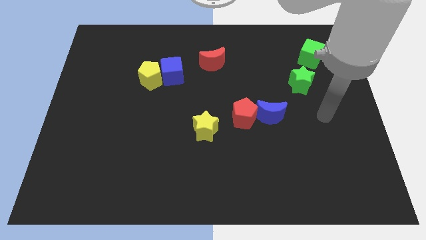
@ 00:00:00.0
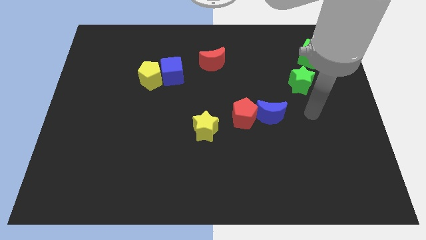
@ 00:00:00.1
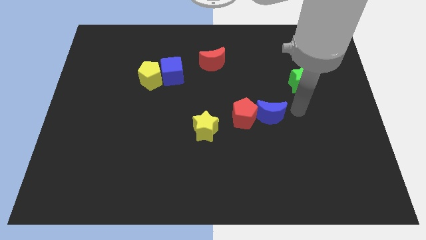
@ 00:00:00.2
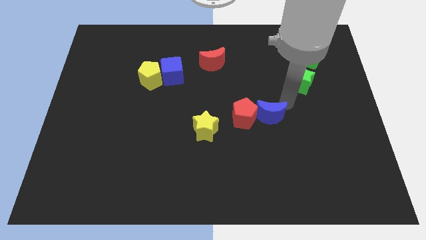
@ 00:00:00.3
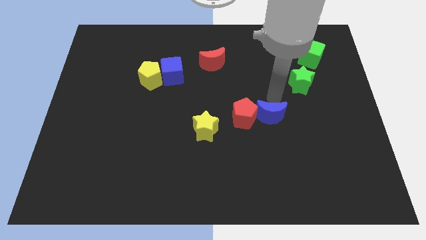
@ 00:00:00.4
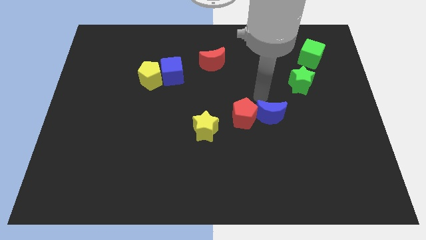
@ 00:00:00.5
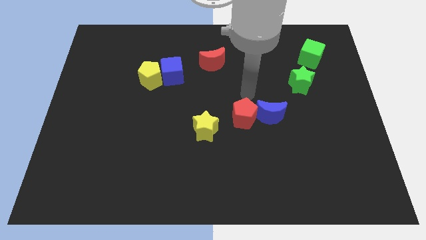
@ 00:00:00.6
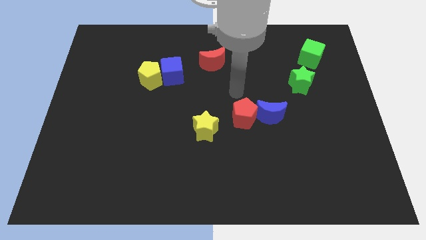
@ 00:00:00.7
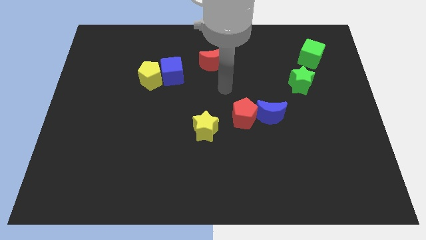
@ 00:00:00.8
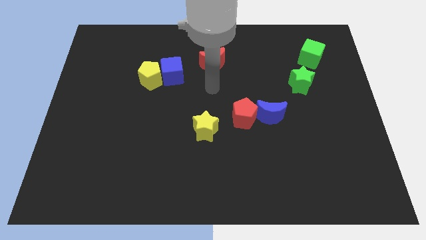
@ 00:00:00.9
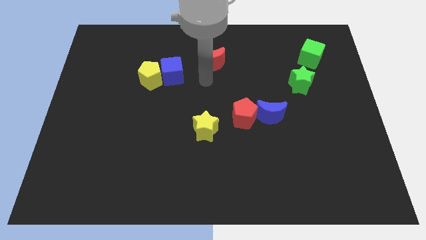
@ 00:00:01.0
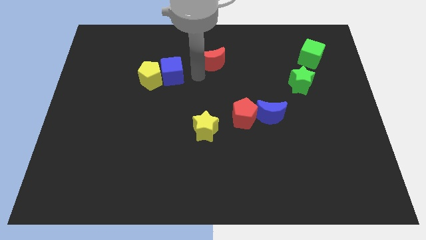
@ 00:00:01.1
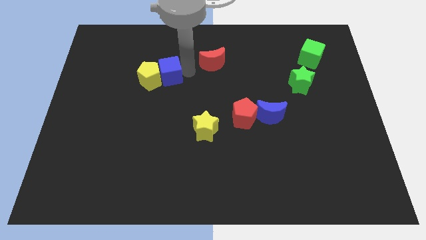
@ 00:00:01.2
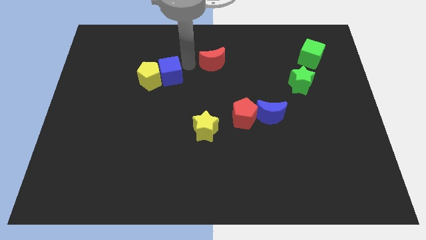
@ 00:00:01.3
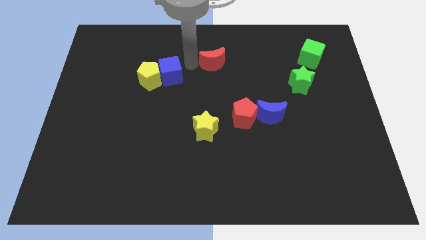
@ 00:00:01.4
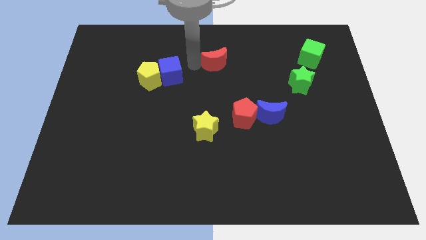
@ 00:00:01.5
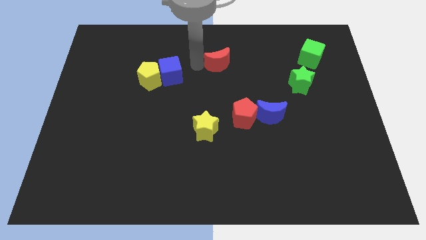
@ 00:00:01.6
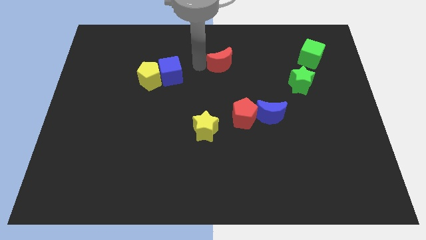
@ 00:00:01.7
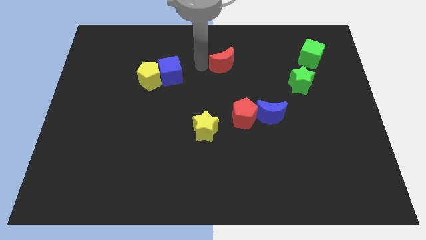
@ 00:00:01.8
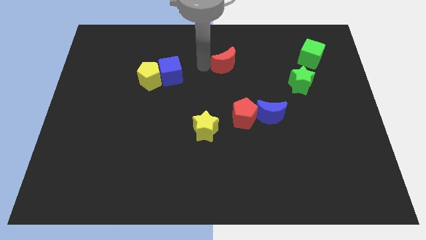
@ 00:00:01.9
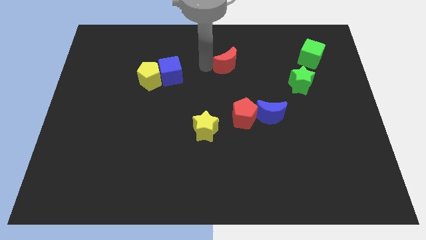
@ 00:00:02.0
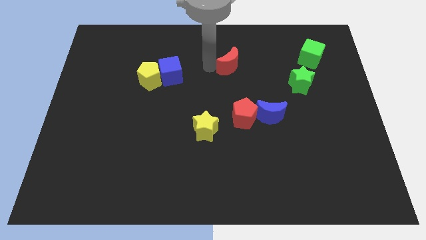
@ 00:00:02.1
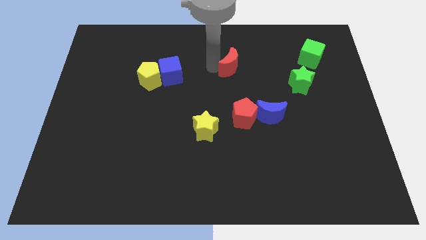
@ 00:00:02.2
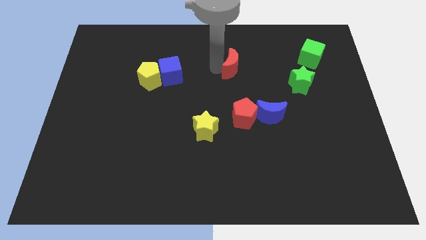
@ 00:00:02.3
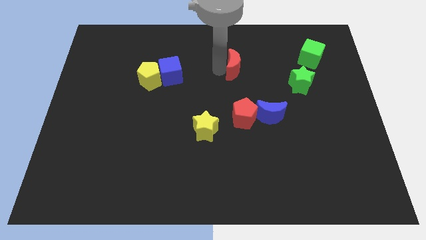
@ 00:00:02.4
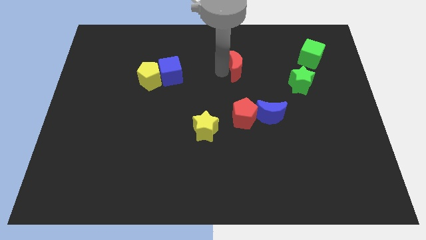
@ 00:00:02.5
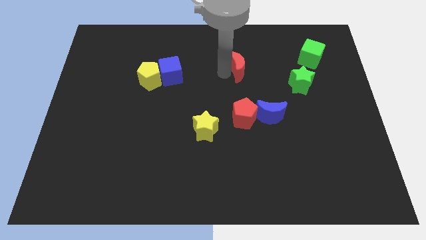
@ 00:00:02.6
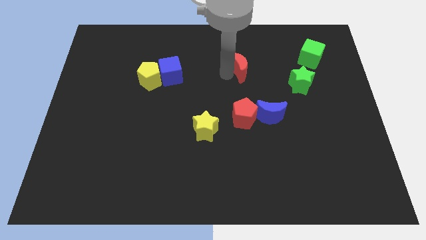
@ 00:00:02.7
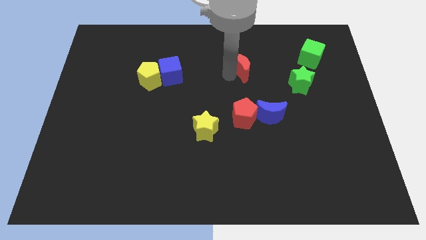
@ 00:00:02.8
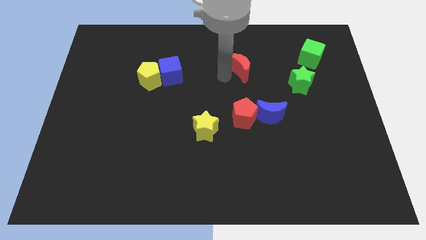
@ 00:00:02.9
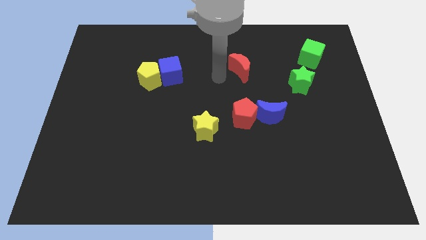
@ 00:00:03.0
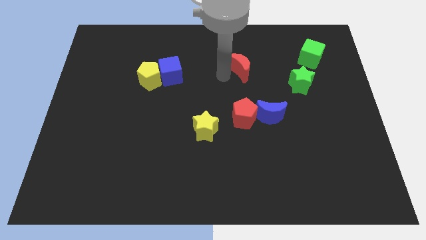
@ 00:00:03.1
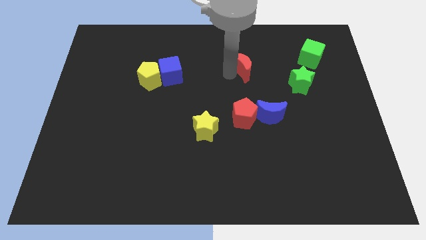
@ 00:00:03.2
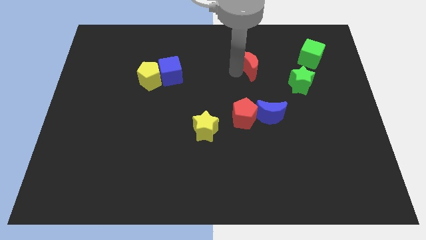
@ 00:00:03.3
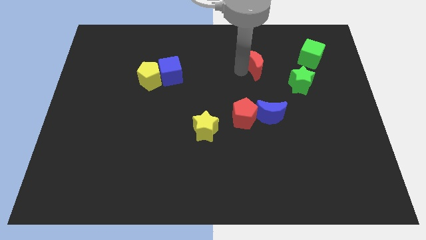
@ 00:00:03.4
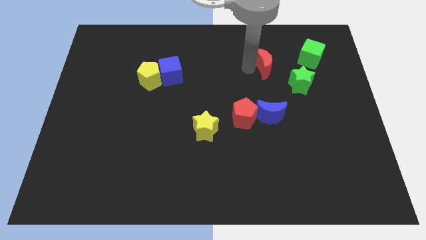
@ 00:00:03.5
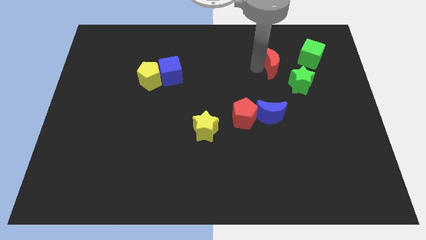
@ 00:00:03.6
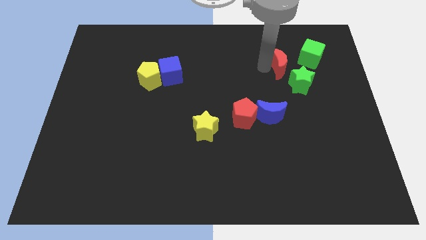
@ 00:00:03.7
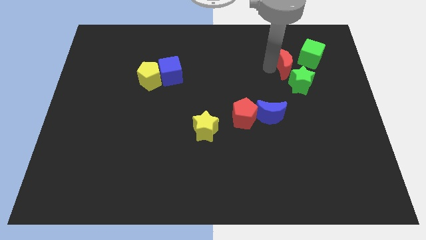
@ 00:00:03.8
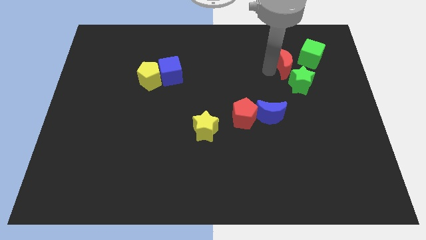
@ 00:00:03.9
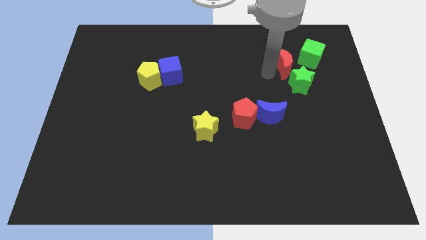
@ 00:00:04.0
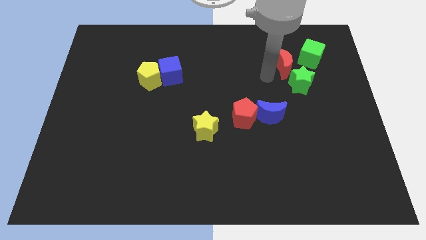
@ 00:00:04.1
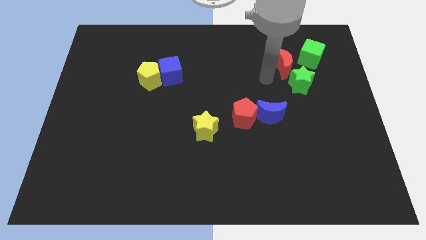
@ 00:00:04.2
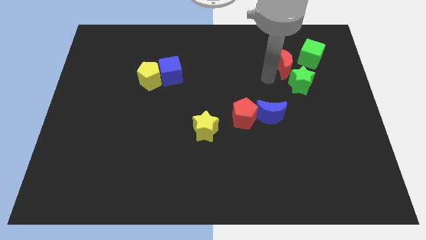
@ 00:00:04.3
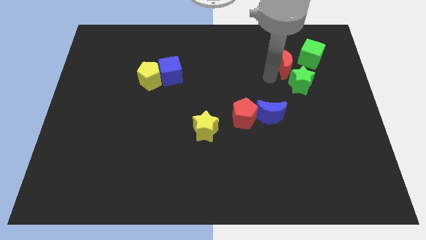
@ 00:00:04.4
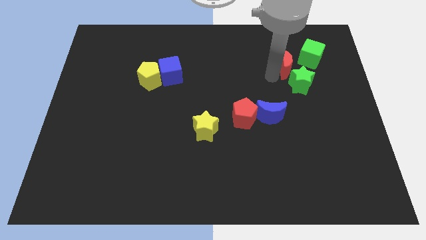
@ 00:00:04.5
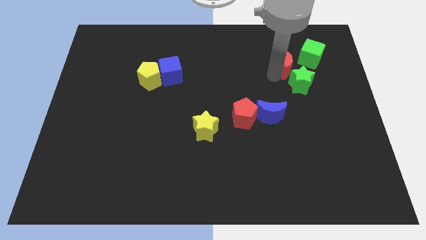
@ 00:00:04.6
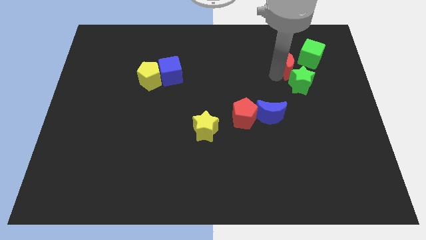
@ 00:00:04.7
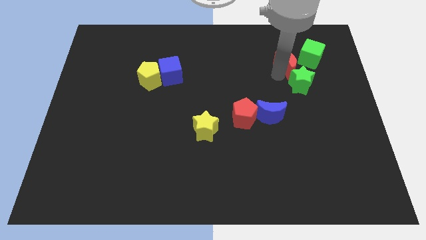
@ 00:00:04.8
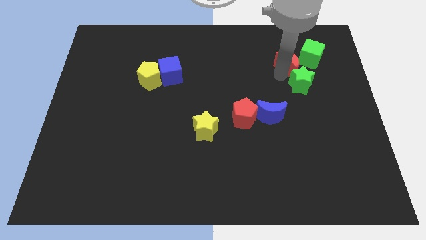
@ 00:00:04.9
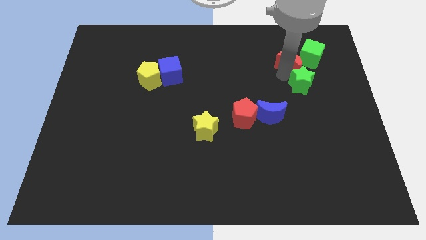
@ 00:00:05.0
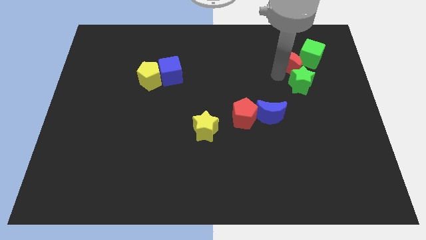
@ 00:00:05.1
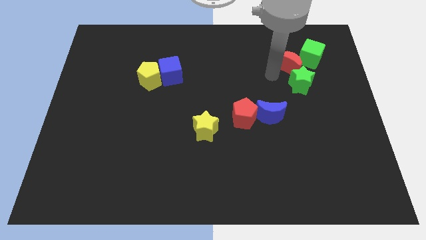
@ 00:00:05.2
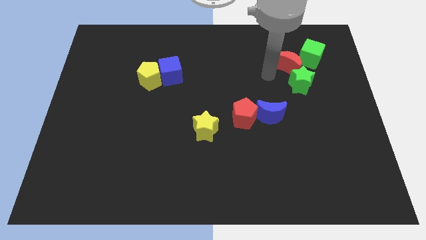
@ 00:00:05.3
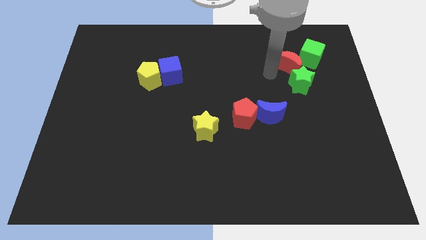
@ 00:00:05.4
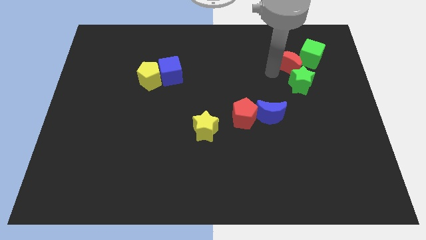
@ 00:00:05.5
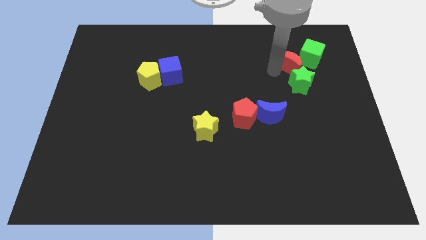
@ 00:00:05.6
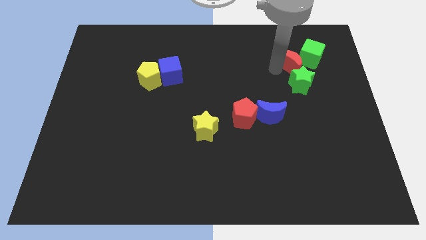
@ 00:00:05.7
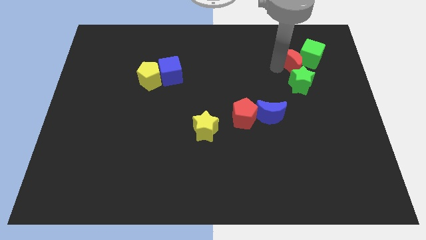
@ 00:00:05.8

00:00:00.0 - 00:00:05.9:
move the red moon towards the green cube

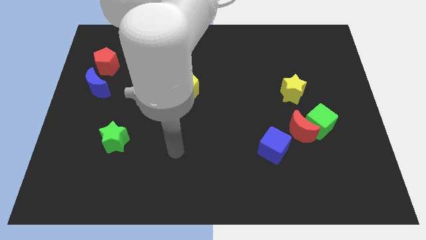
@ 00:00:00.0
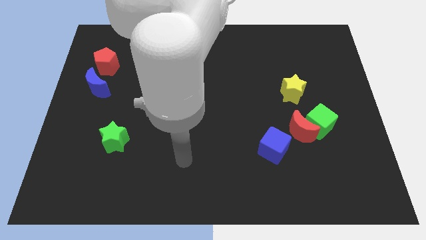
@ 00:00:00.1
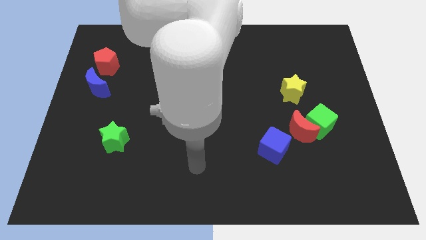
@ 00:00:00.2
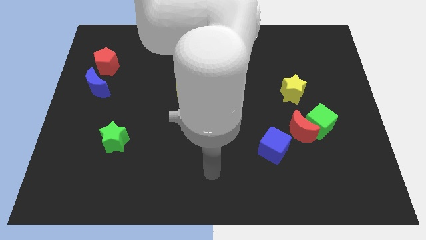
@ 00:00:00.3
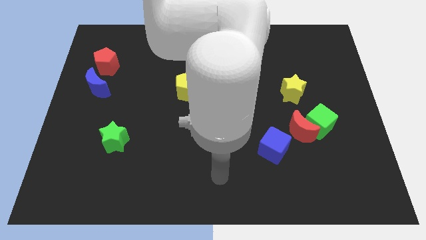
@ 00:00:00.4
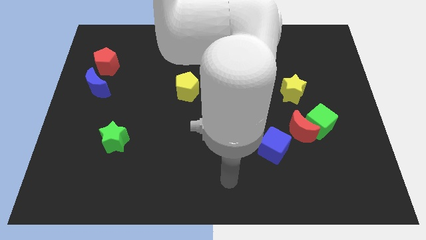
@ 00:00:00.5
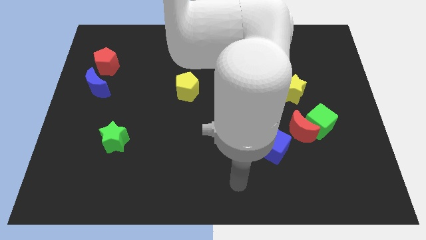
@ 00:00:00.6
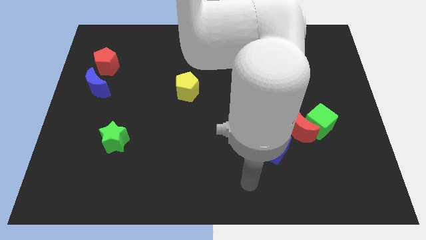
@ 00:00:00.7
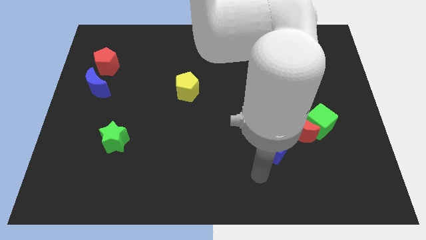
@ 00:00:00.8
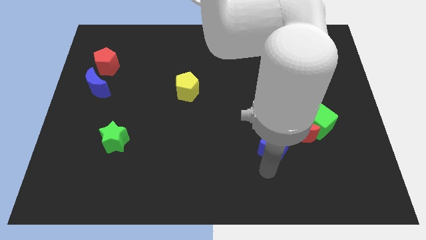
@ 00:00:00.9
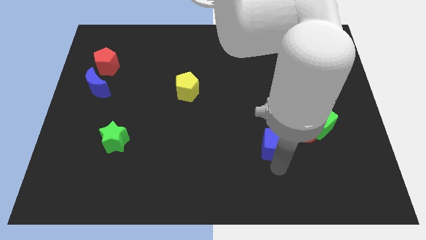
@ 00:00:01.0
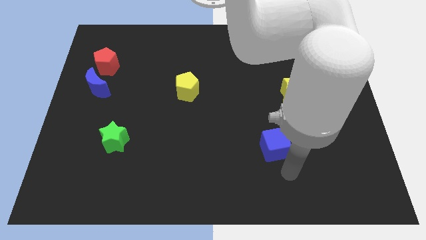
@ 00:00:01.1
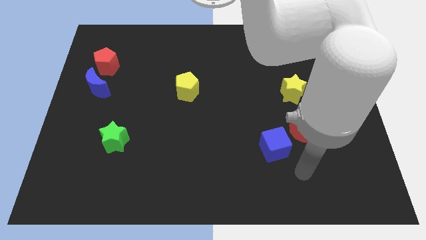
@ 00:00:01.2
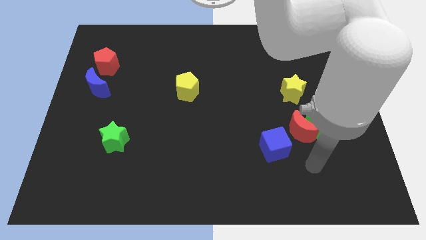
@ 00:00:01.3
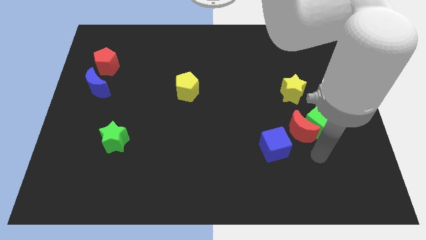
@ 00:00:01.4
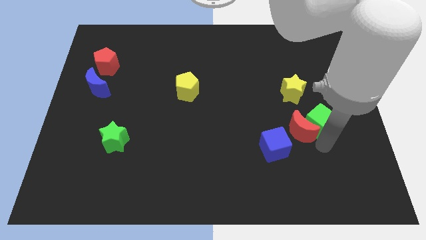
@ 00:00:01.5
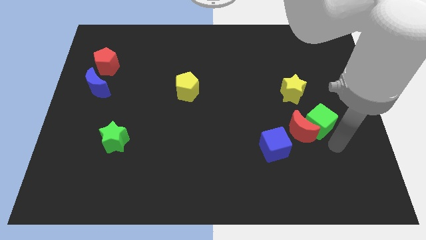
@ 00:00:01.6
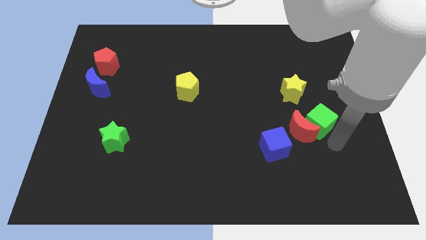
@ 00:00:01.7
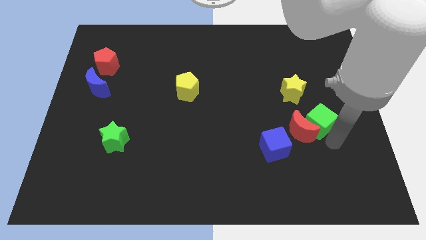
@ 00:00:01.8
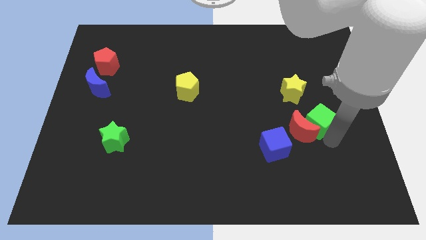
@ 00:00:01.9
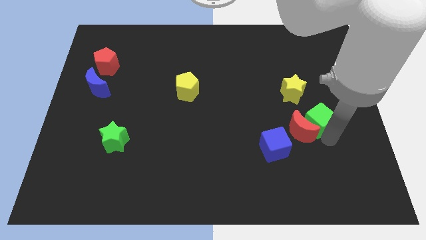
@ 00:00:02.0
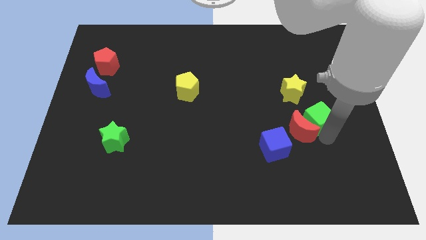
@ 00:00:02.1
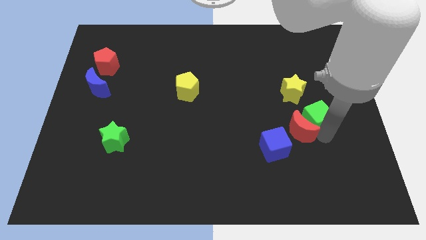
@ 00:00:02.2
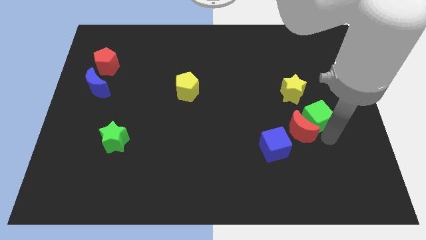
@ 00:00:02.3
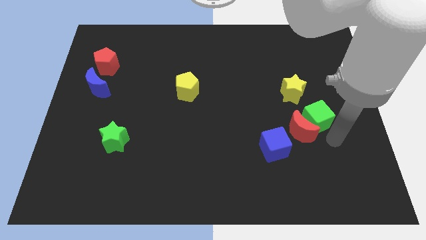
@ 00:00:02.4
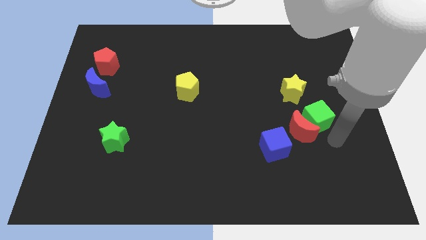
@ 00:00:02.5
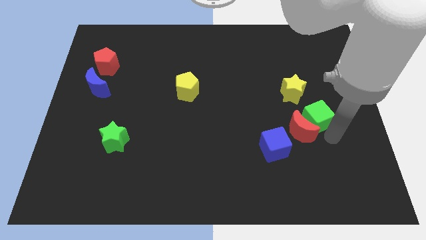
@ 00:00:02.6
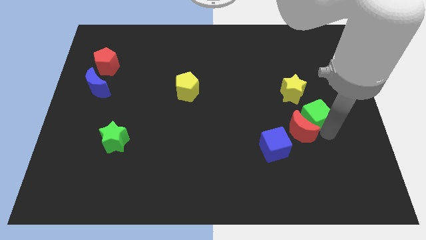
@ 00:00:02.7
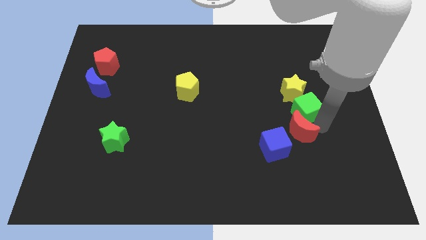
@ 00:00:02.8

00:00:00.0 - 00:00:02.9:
put the green cube close to the yellow star
